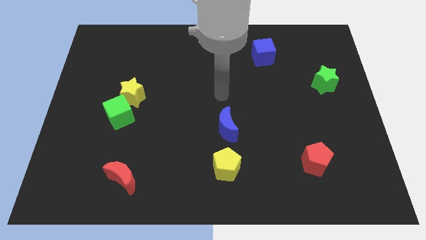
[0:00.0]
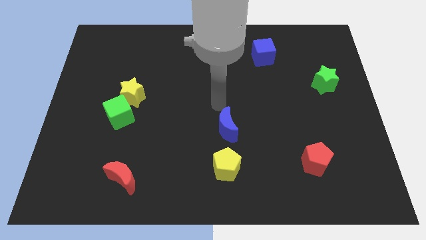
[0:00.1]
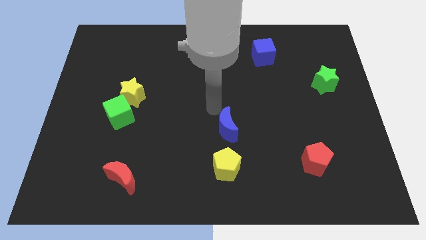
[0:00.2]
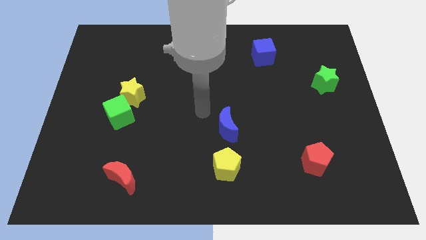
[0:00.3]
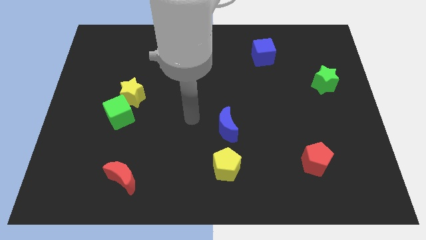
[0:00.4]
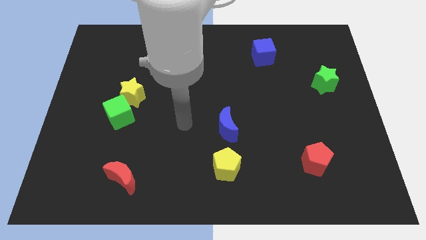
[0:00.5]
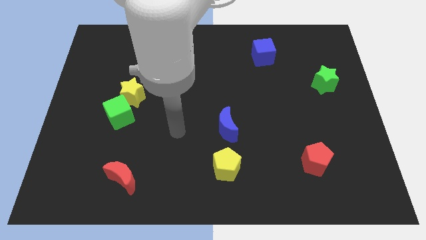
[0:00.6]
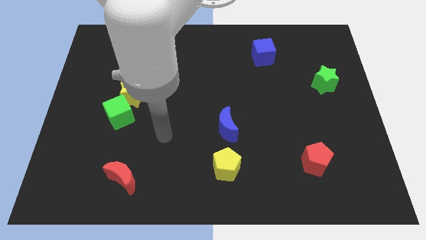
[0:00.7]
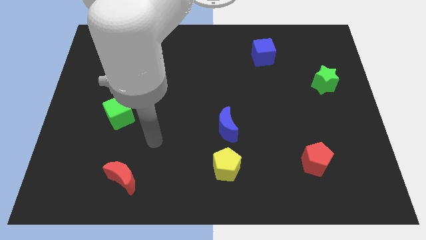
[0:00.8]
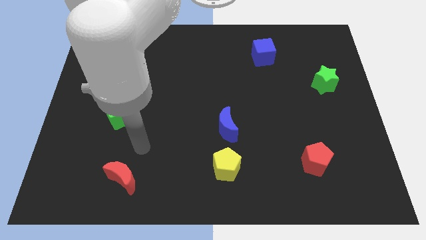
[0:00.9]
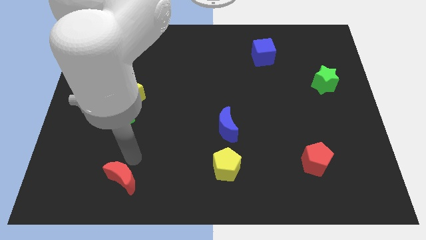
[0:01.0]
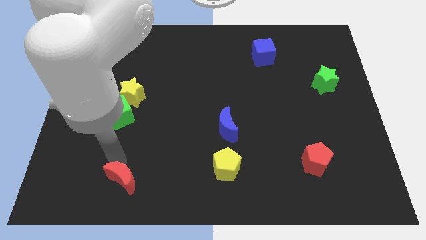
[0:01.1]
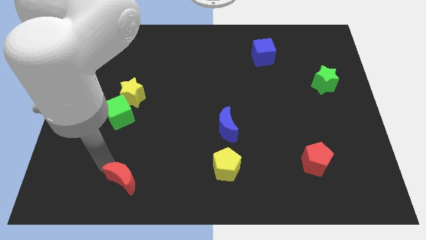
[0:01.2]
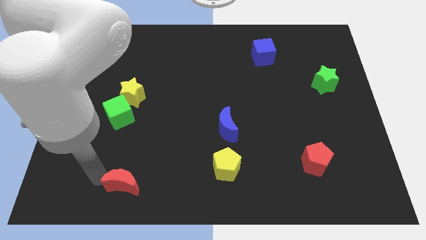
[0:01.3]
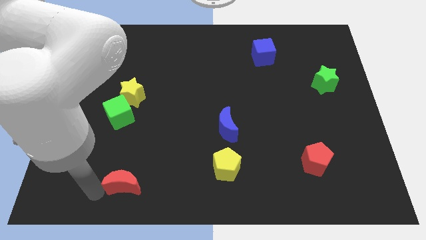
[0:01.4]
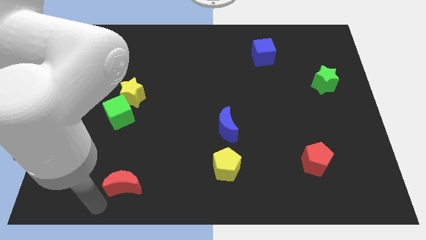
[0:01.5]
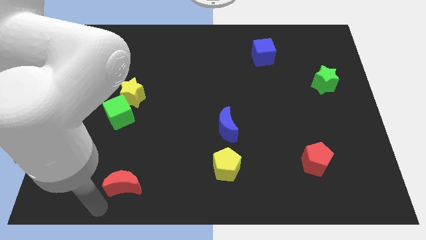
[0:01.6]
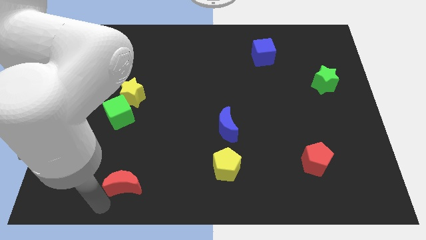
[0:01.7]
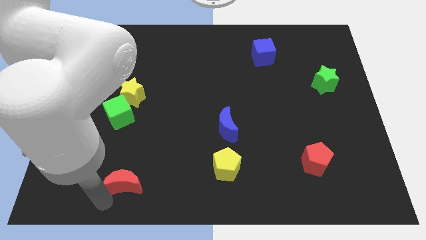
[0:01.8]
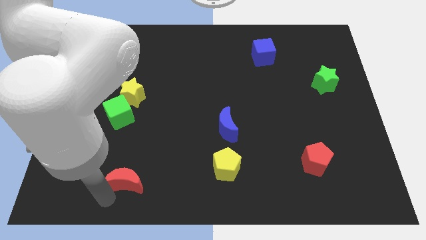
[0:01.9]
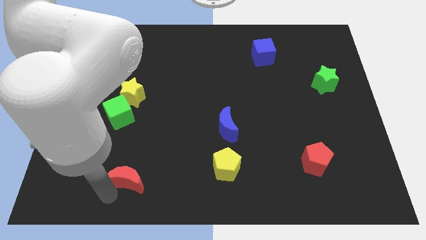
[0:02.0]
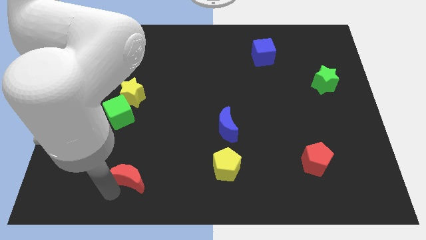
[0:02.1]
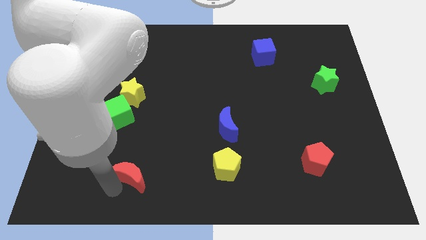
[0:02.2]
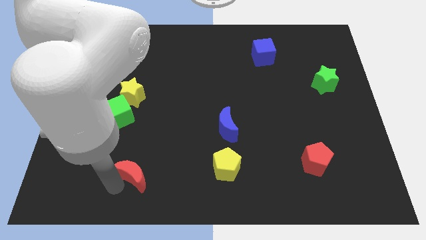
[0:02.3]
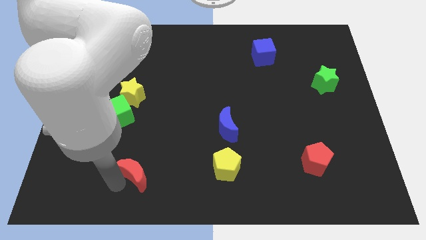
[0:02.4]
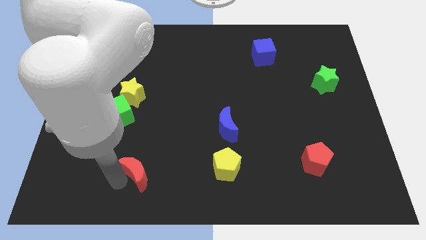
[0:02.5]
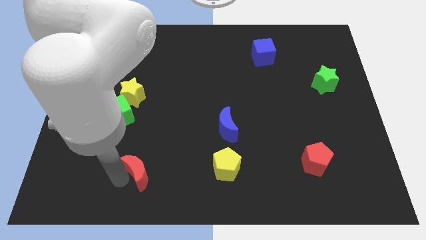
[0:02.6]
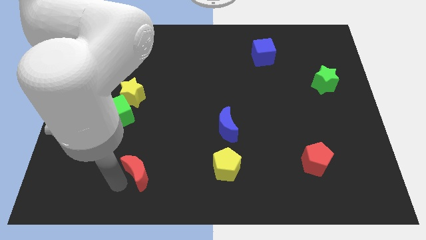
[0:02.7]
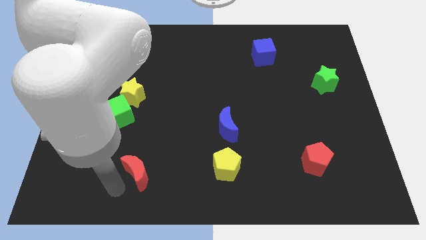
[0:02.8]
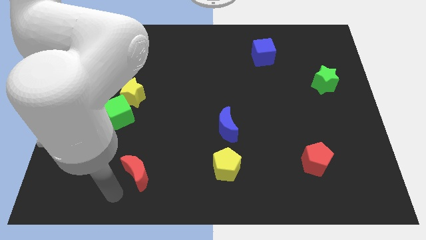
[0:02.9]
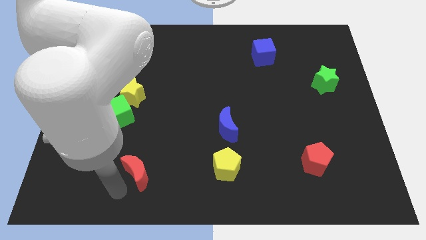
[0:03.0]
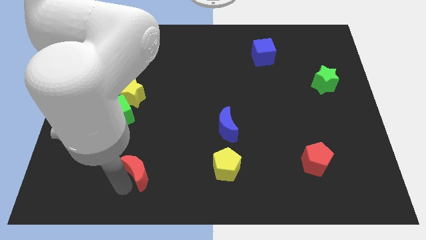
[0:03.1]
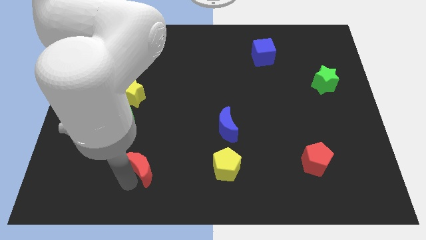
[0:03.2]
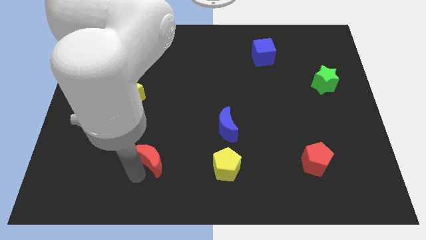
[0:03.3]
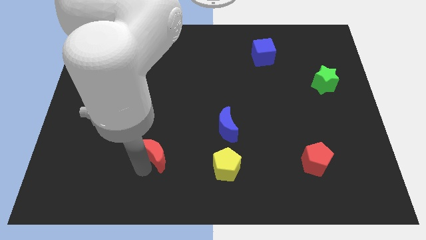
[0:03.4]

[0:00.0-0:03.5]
move the red moon a little bit diagonally up and to the right

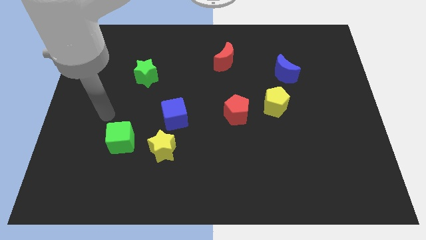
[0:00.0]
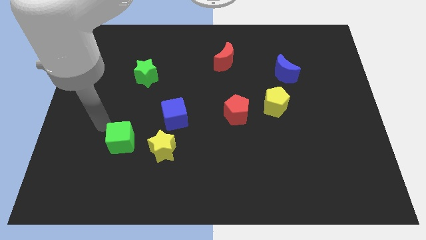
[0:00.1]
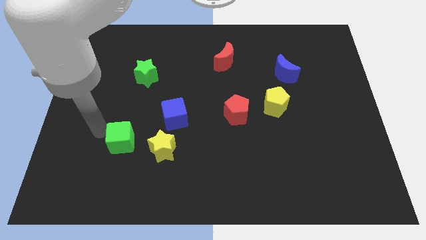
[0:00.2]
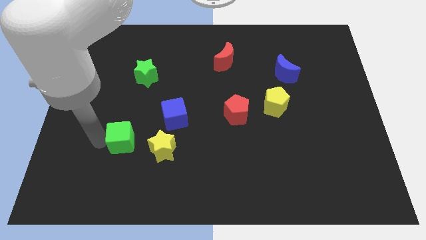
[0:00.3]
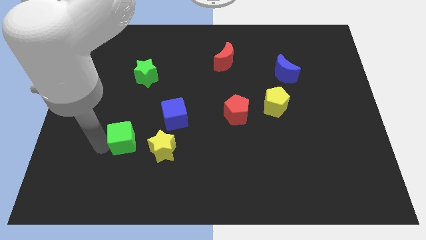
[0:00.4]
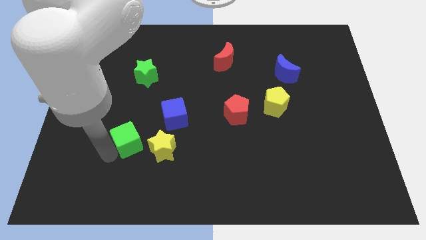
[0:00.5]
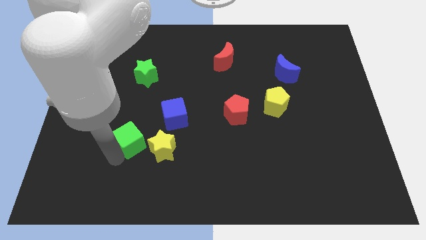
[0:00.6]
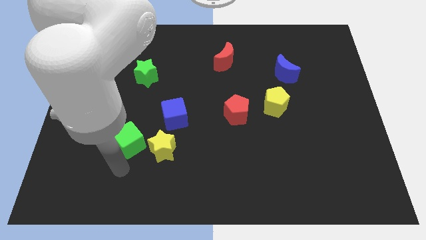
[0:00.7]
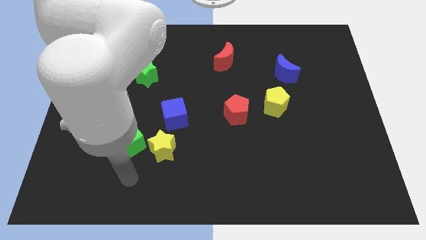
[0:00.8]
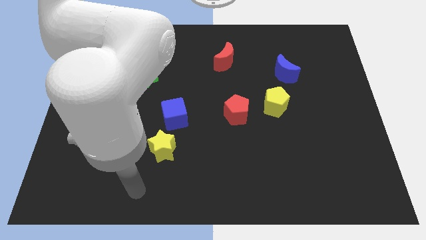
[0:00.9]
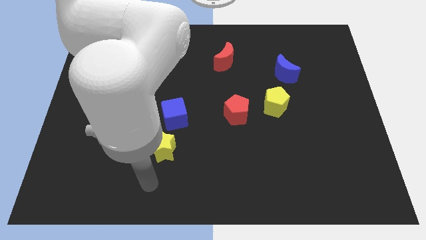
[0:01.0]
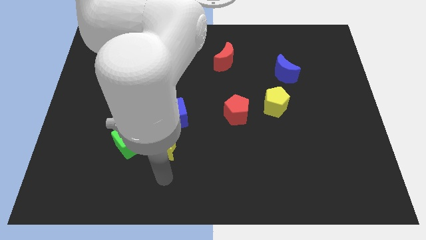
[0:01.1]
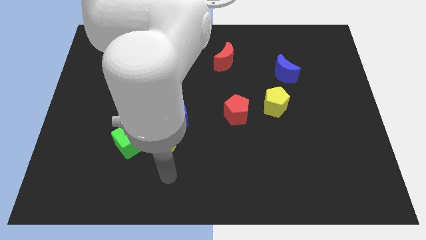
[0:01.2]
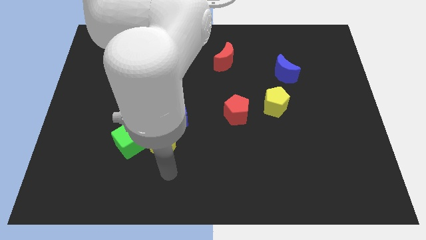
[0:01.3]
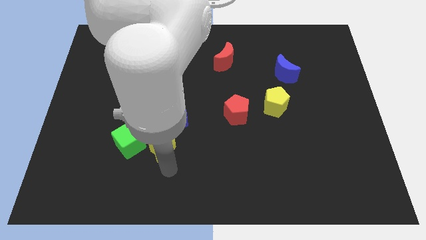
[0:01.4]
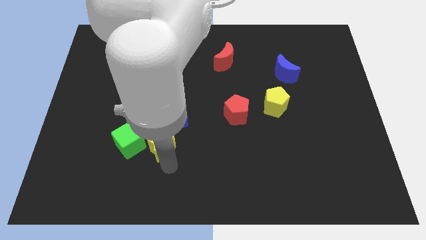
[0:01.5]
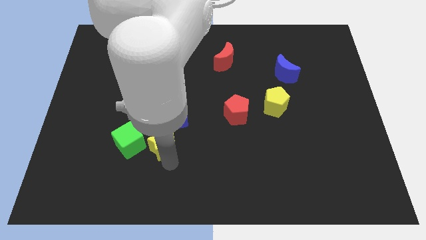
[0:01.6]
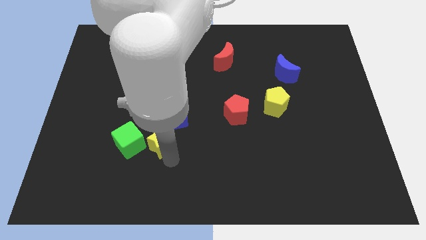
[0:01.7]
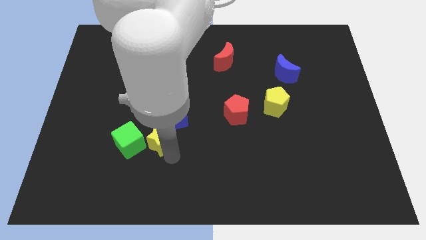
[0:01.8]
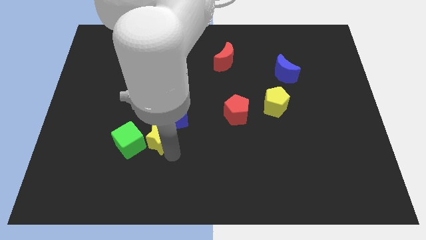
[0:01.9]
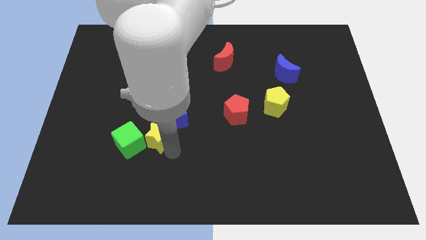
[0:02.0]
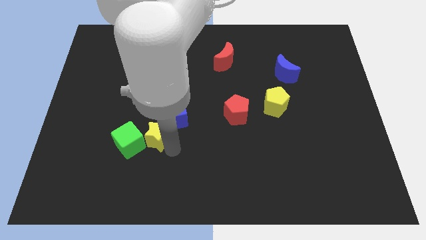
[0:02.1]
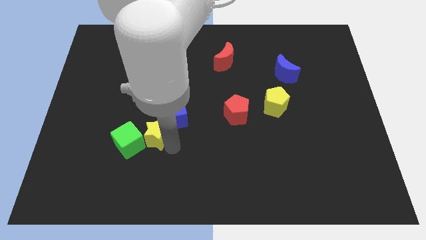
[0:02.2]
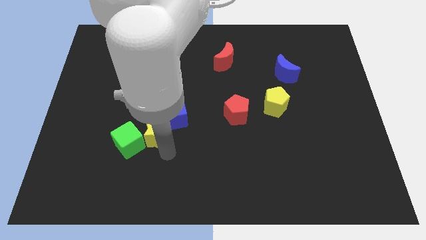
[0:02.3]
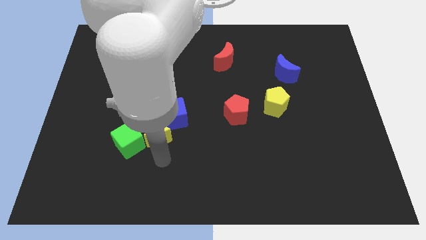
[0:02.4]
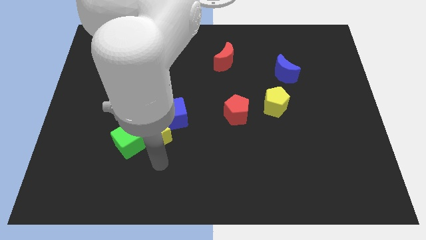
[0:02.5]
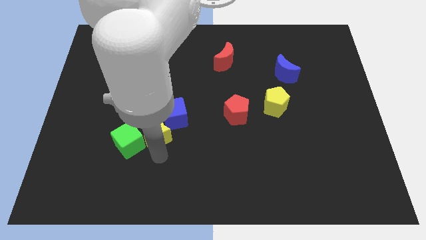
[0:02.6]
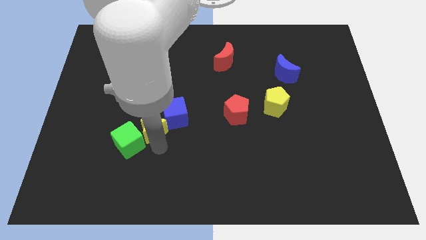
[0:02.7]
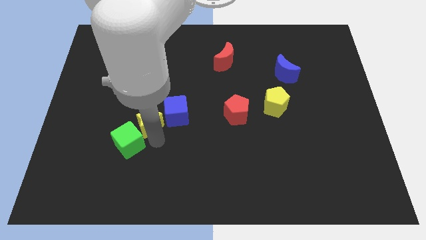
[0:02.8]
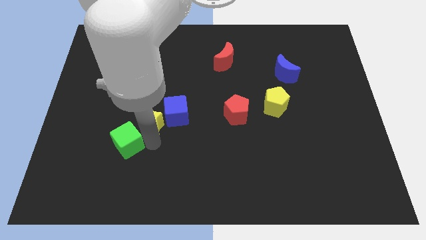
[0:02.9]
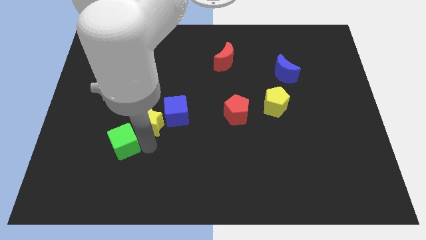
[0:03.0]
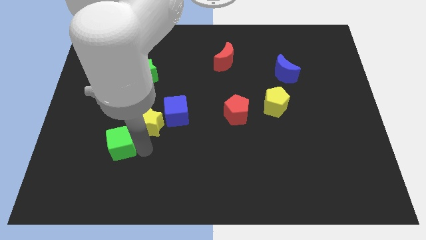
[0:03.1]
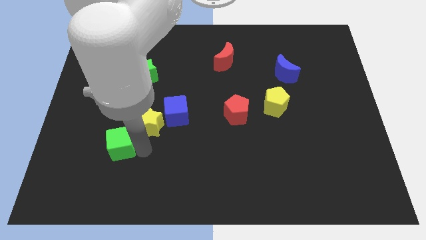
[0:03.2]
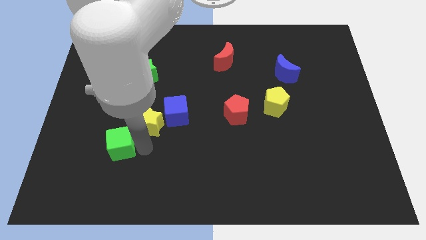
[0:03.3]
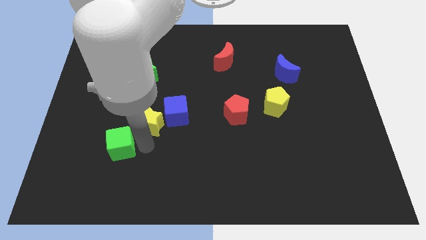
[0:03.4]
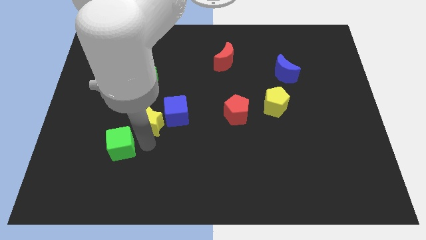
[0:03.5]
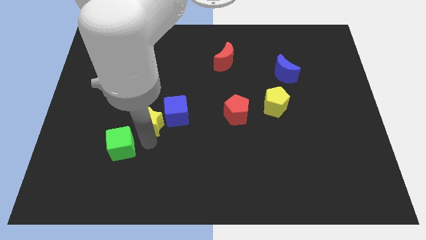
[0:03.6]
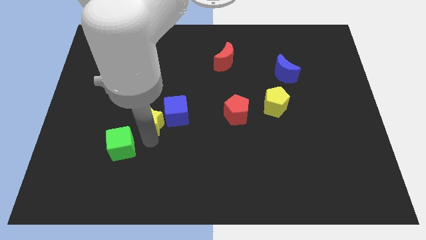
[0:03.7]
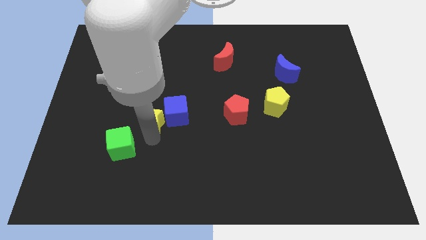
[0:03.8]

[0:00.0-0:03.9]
slightly slide the yellow star up

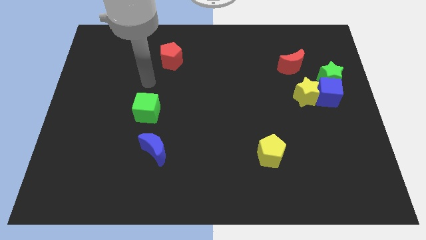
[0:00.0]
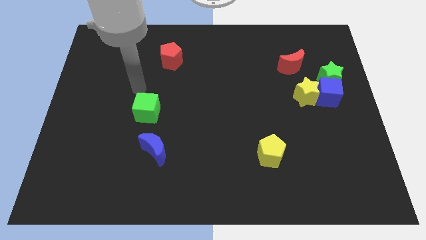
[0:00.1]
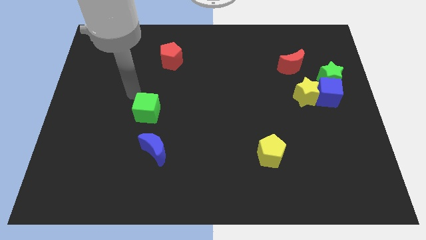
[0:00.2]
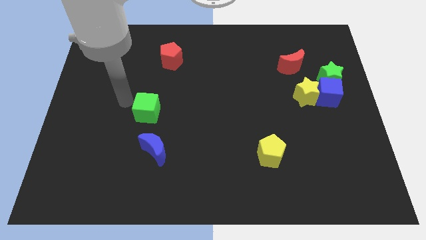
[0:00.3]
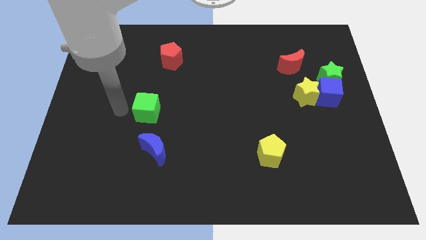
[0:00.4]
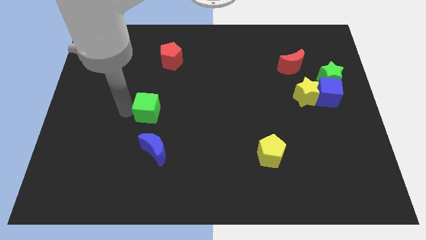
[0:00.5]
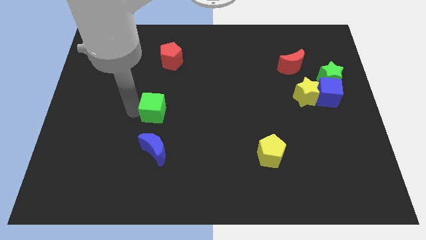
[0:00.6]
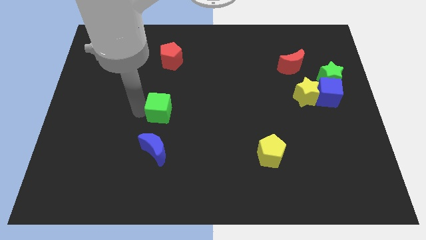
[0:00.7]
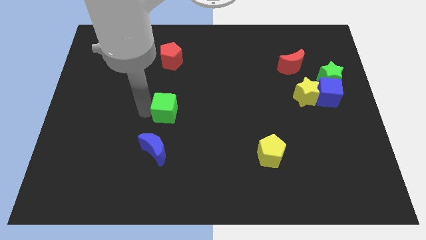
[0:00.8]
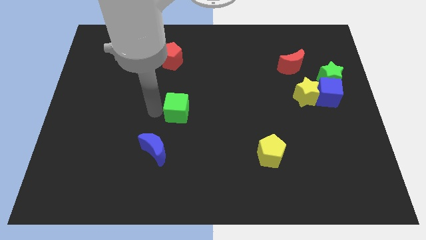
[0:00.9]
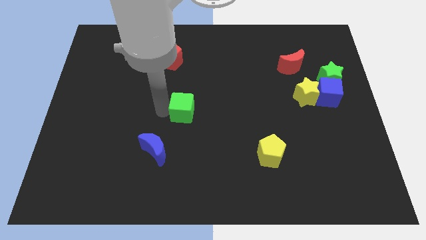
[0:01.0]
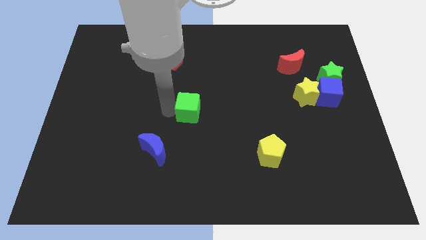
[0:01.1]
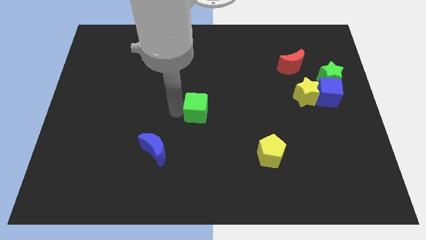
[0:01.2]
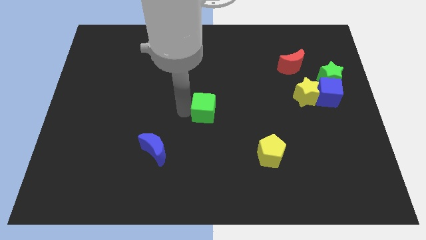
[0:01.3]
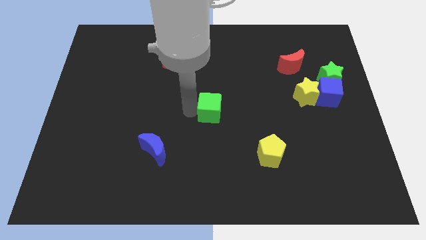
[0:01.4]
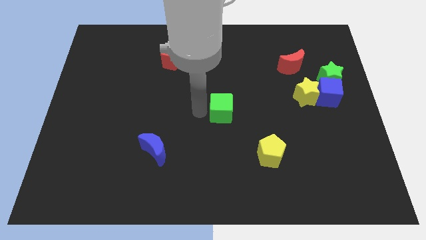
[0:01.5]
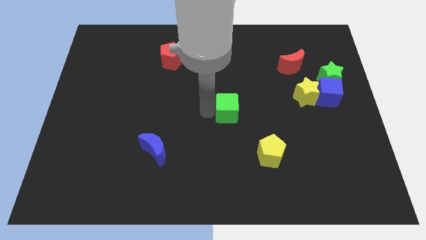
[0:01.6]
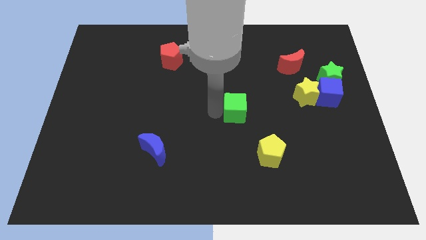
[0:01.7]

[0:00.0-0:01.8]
move the green cube to the right
